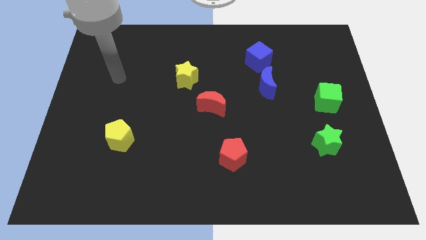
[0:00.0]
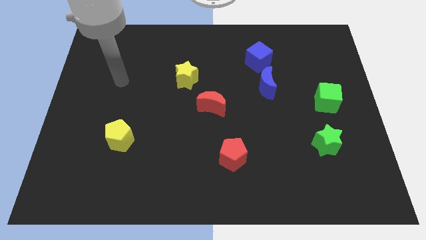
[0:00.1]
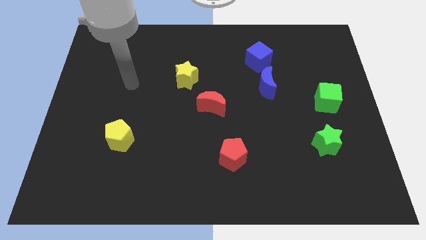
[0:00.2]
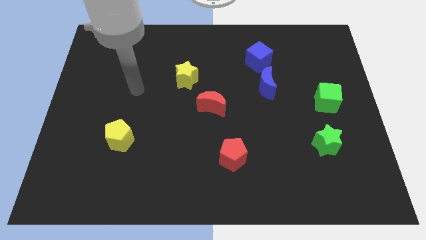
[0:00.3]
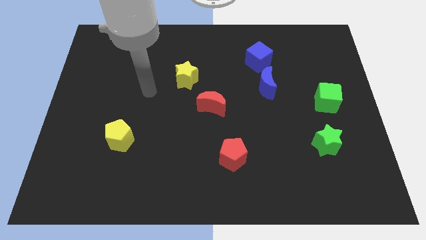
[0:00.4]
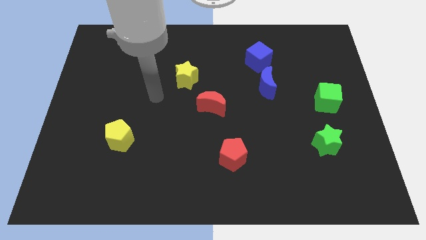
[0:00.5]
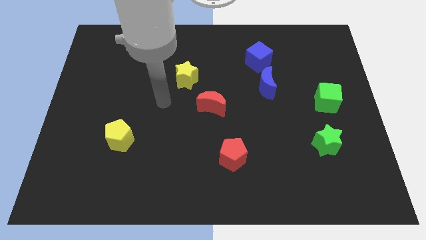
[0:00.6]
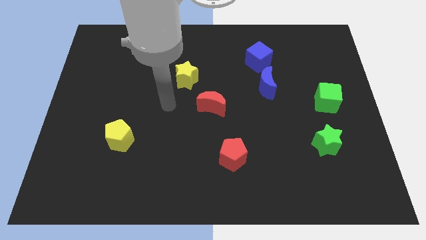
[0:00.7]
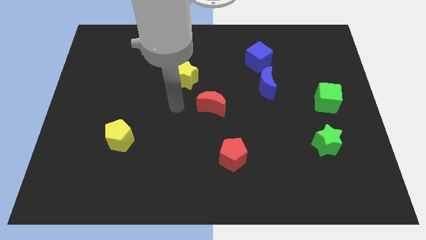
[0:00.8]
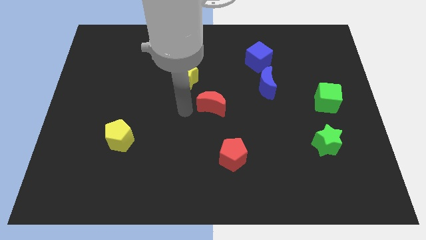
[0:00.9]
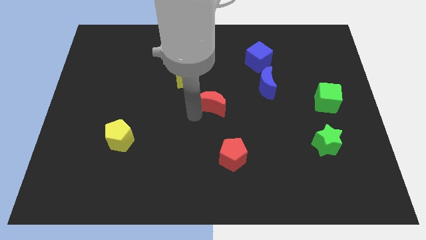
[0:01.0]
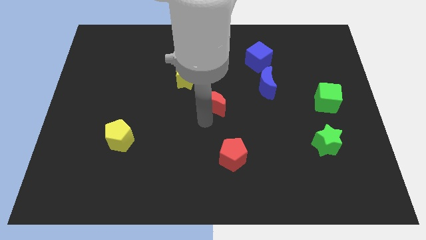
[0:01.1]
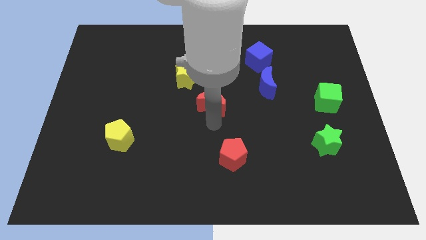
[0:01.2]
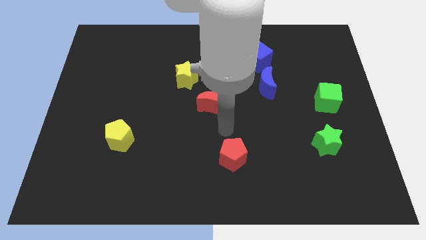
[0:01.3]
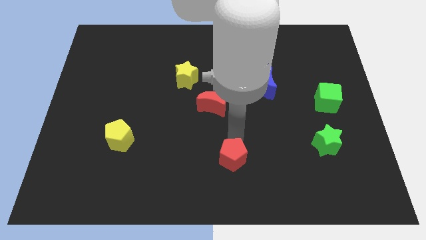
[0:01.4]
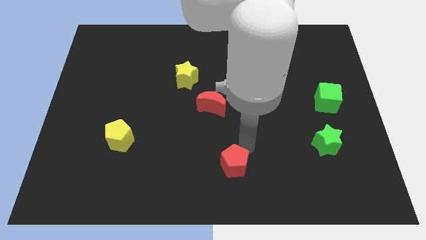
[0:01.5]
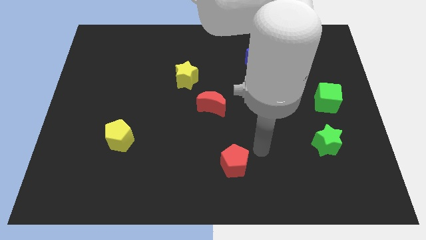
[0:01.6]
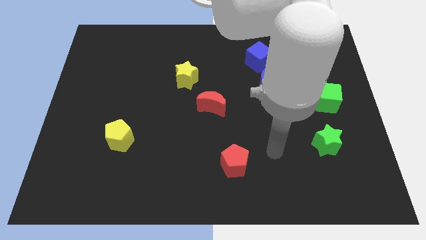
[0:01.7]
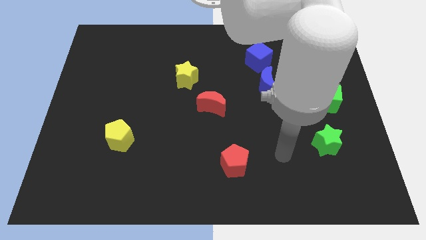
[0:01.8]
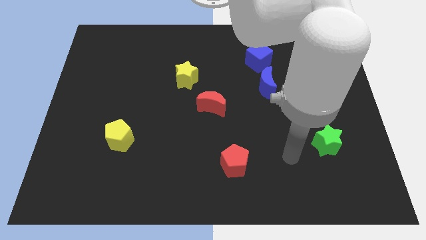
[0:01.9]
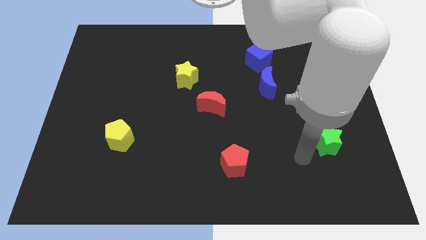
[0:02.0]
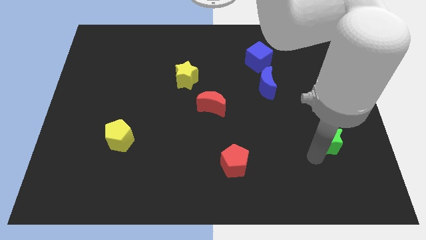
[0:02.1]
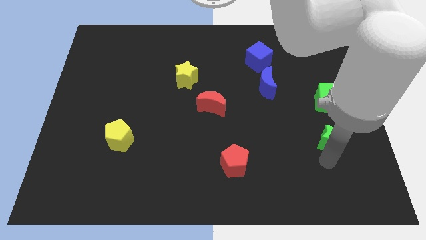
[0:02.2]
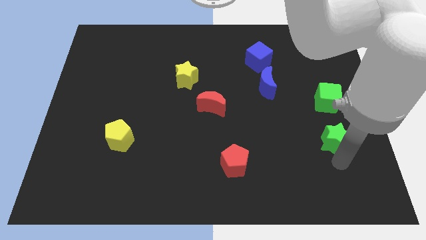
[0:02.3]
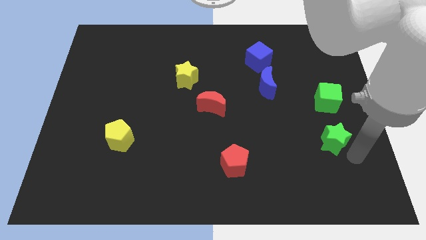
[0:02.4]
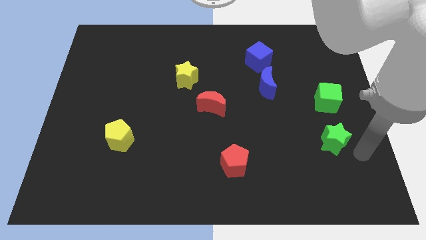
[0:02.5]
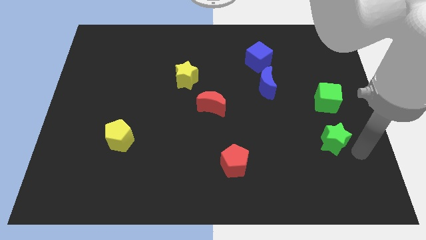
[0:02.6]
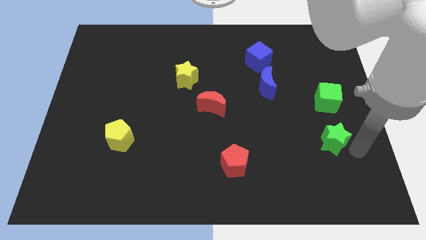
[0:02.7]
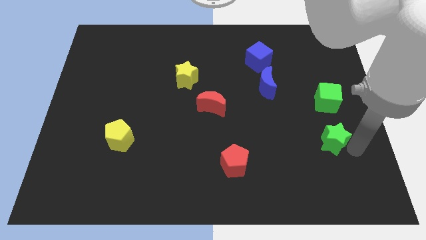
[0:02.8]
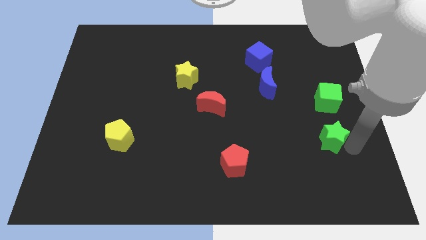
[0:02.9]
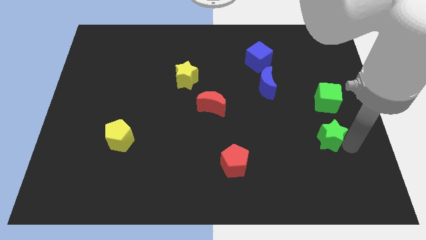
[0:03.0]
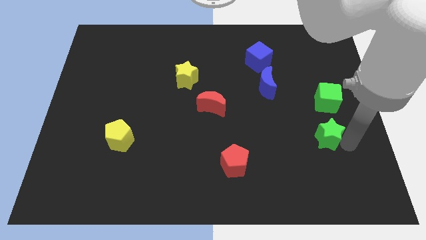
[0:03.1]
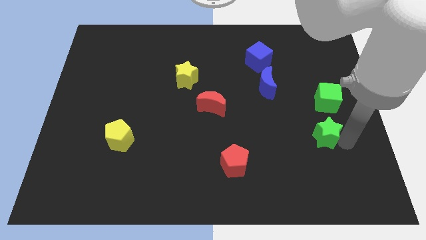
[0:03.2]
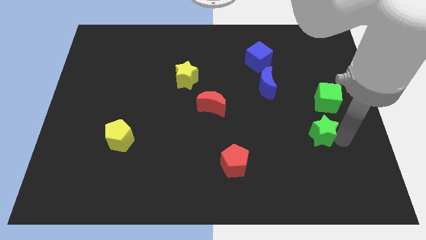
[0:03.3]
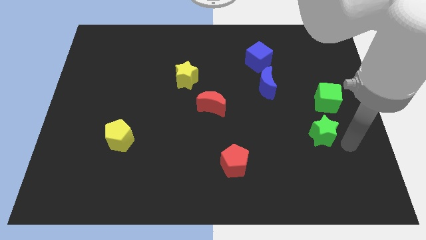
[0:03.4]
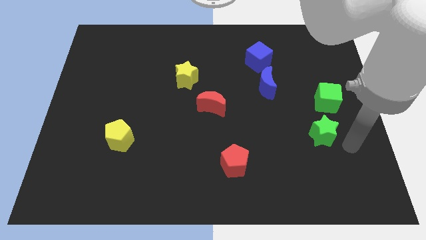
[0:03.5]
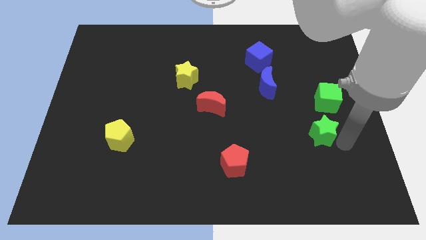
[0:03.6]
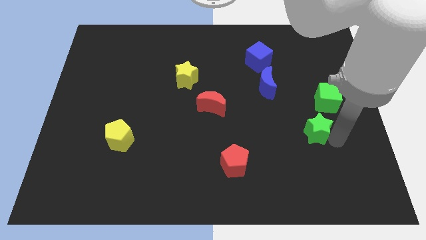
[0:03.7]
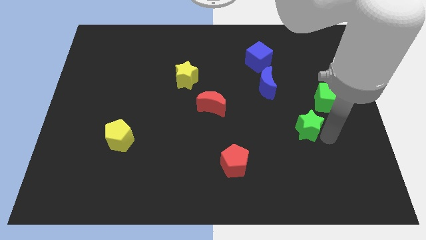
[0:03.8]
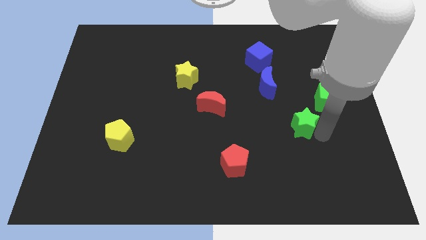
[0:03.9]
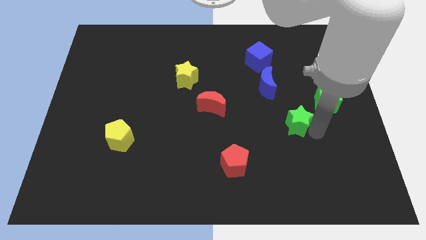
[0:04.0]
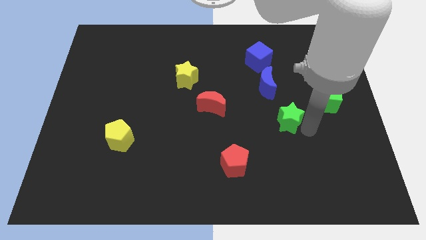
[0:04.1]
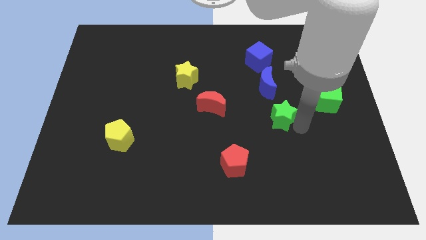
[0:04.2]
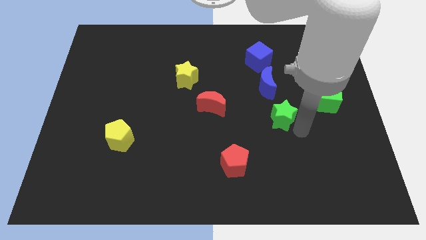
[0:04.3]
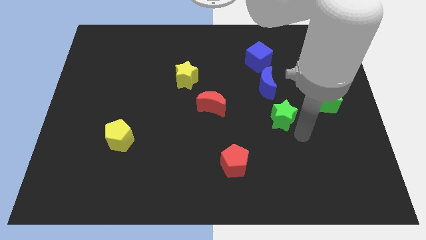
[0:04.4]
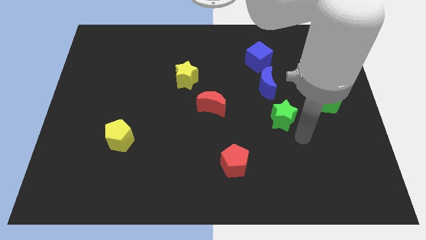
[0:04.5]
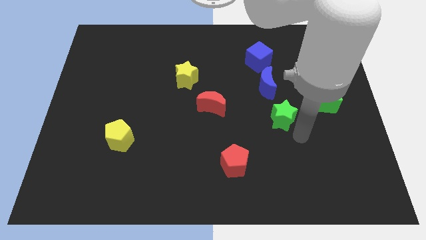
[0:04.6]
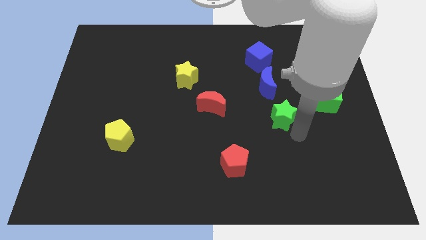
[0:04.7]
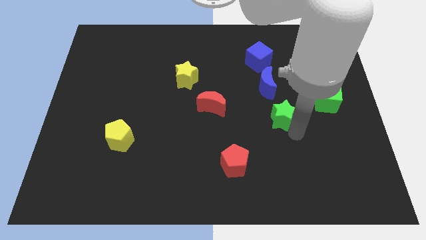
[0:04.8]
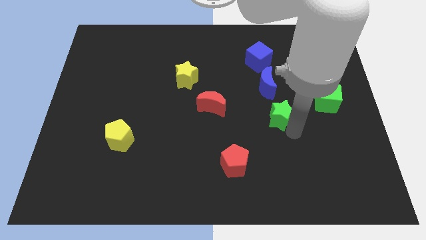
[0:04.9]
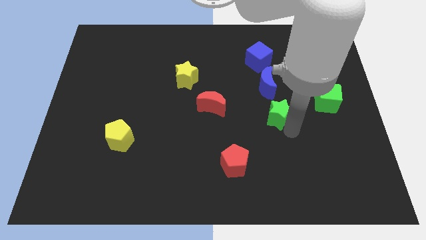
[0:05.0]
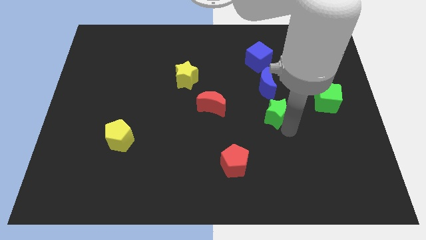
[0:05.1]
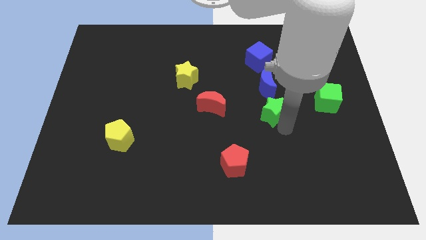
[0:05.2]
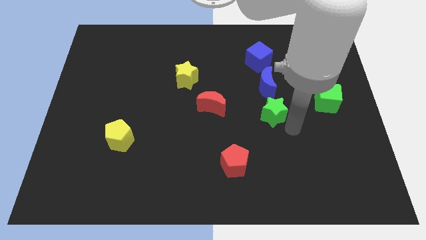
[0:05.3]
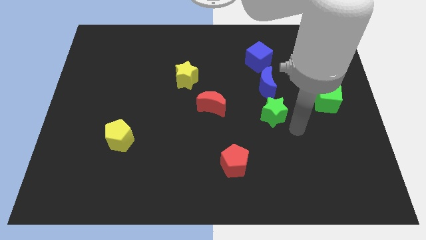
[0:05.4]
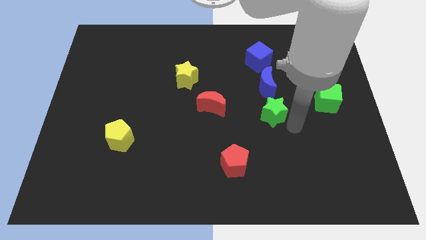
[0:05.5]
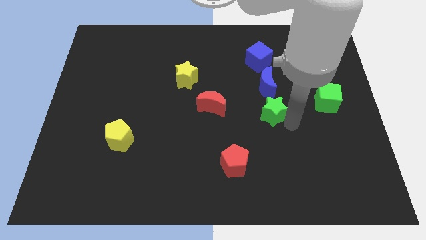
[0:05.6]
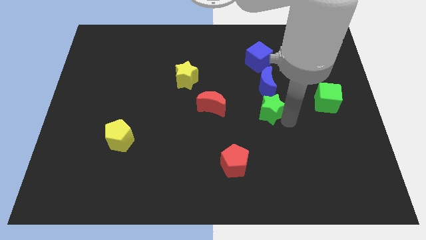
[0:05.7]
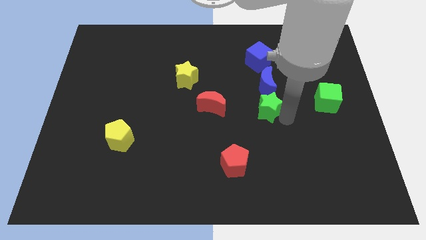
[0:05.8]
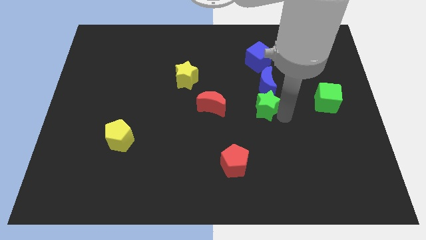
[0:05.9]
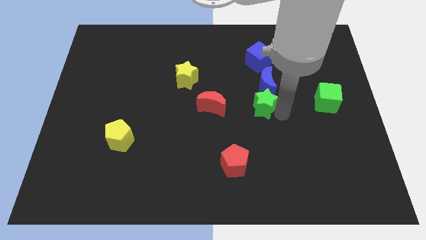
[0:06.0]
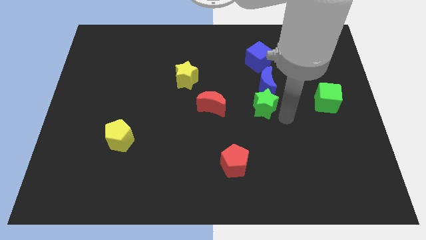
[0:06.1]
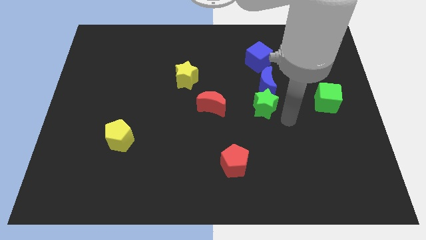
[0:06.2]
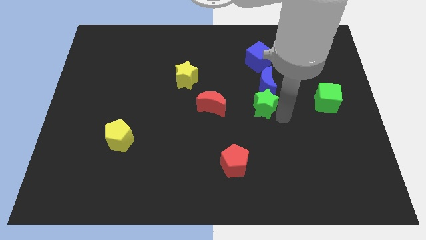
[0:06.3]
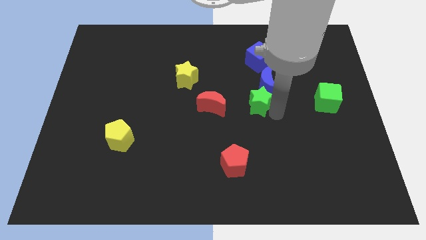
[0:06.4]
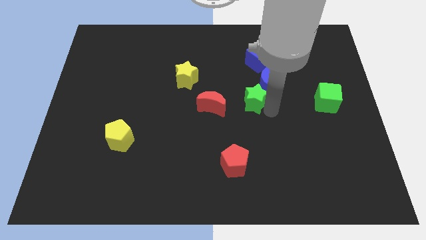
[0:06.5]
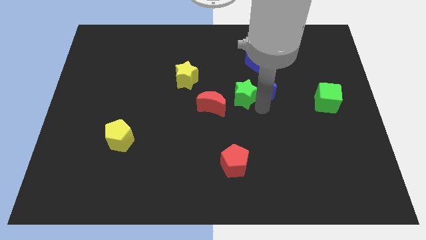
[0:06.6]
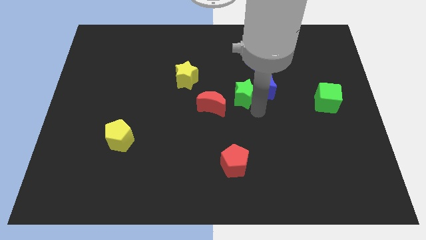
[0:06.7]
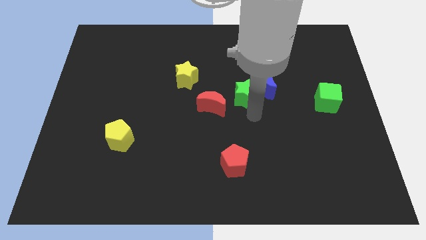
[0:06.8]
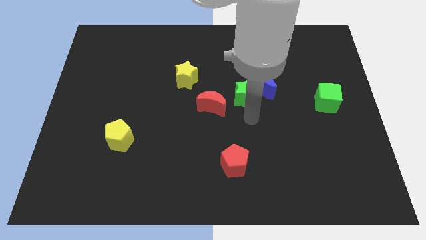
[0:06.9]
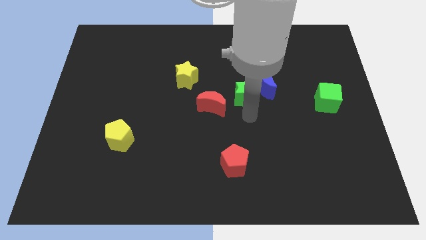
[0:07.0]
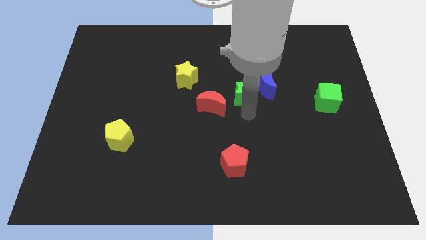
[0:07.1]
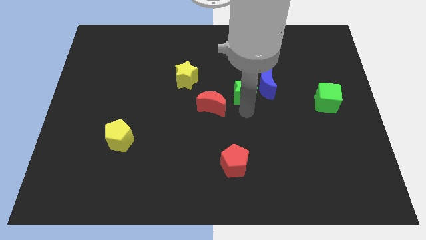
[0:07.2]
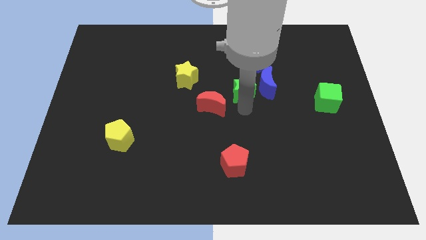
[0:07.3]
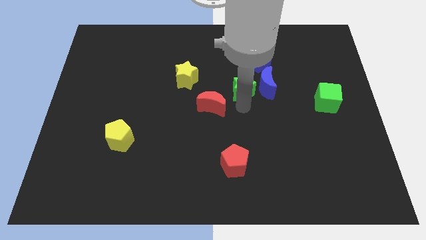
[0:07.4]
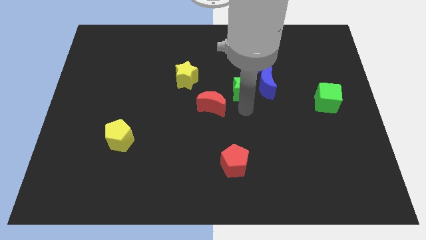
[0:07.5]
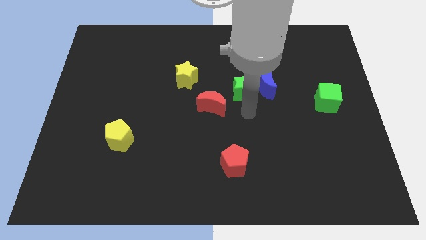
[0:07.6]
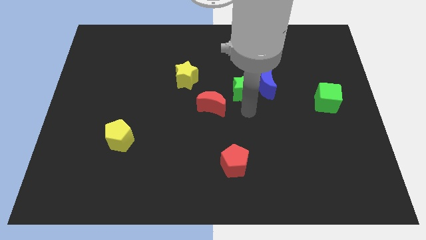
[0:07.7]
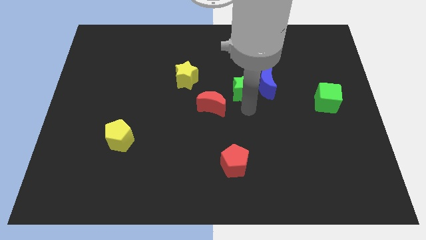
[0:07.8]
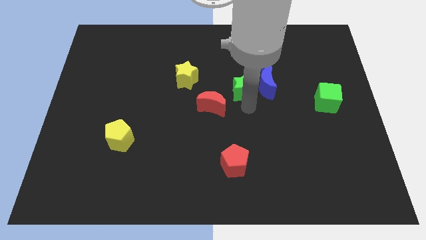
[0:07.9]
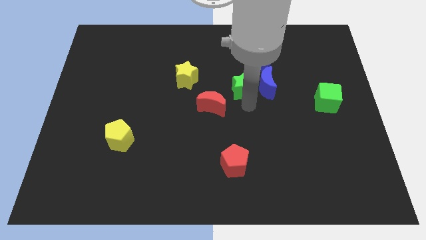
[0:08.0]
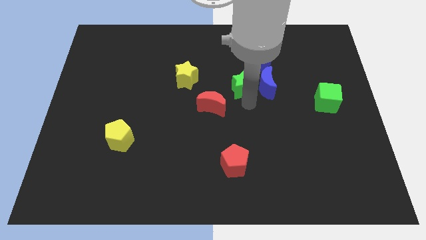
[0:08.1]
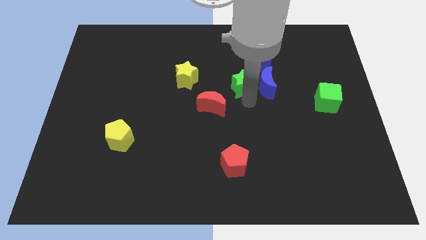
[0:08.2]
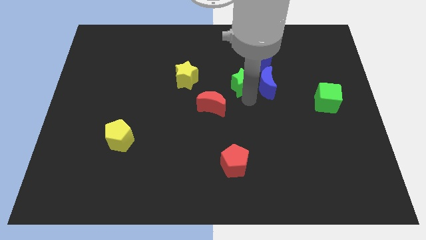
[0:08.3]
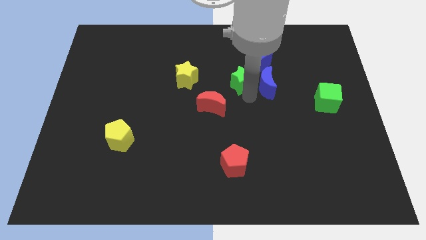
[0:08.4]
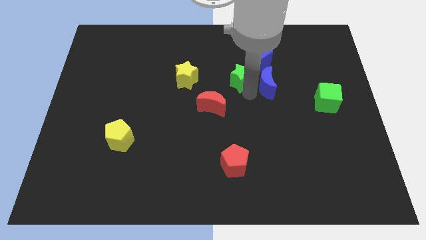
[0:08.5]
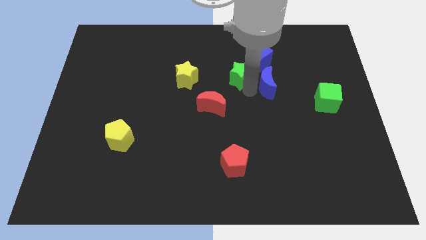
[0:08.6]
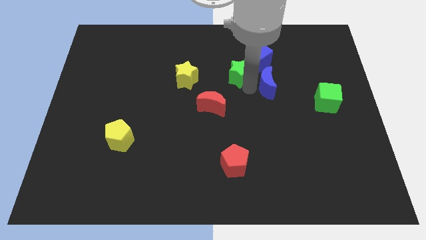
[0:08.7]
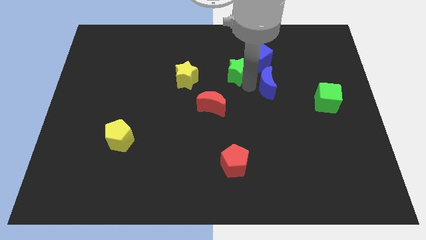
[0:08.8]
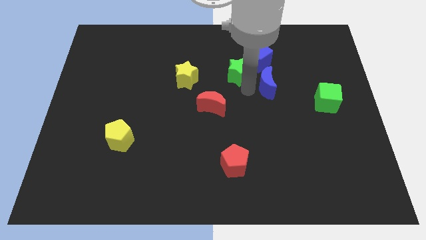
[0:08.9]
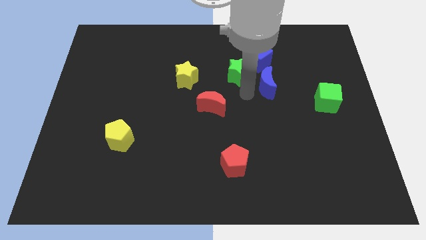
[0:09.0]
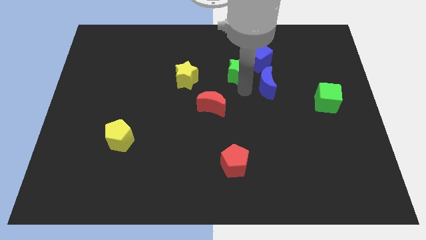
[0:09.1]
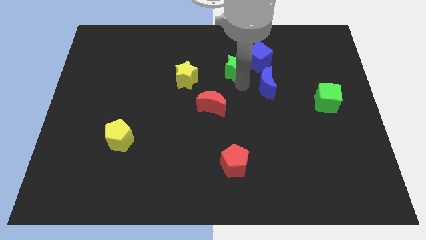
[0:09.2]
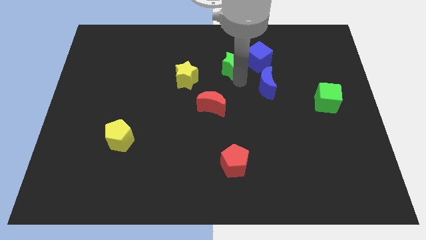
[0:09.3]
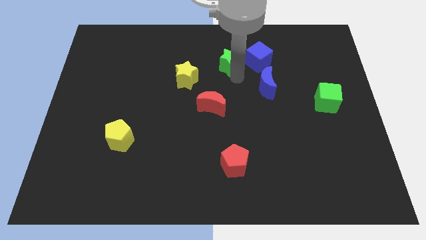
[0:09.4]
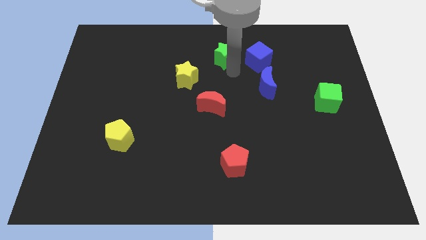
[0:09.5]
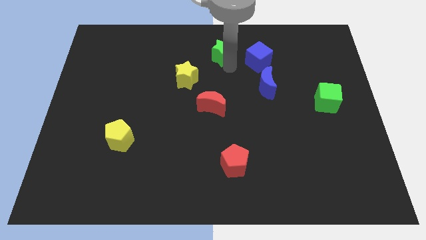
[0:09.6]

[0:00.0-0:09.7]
push the green star to the top
